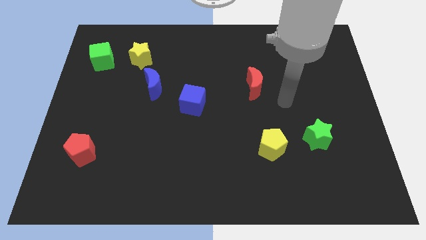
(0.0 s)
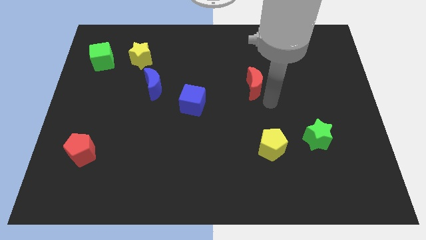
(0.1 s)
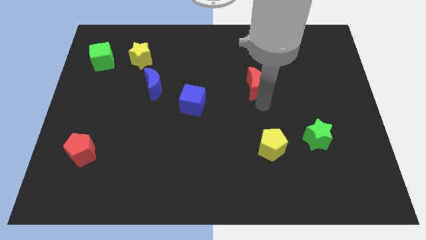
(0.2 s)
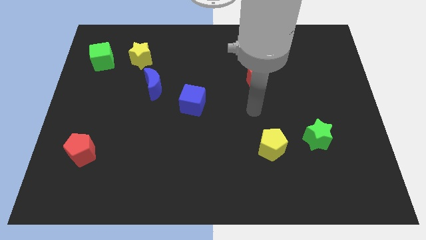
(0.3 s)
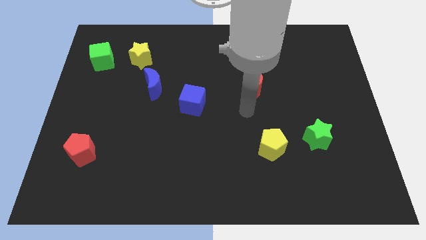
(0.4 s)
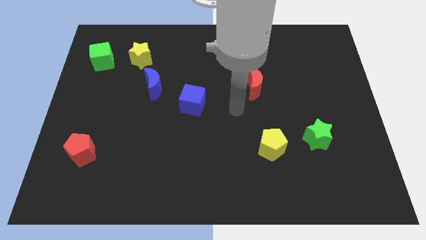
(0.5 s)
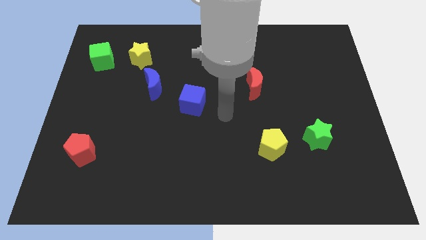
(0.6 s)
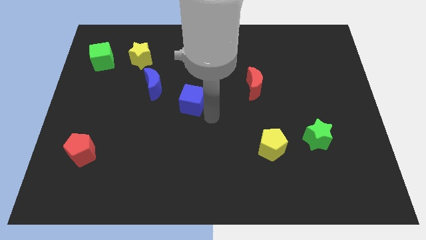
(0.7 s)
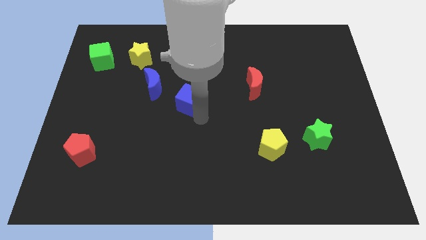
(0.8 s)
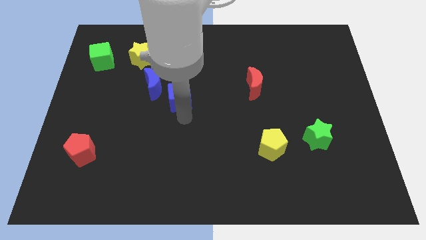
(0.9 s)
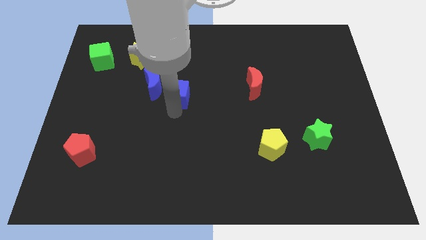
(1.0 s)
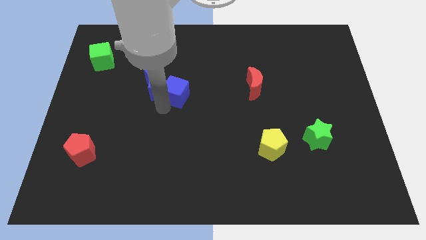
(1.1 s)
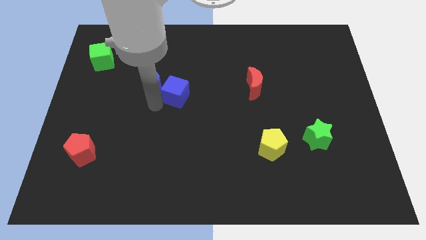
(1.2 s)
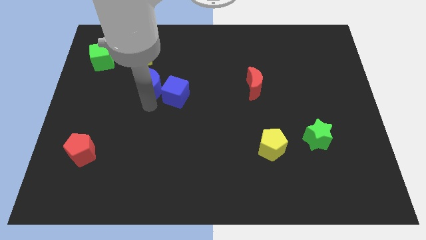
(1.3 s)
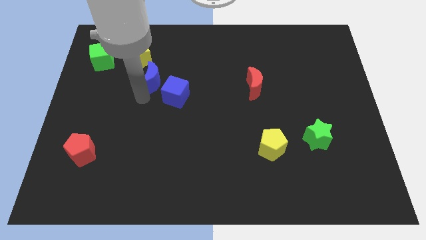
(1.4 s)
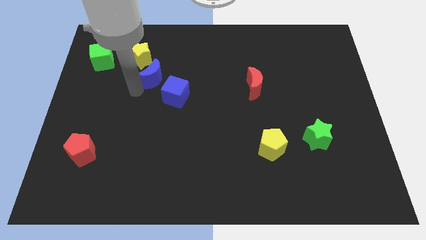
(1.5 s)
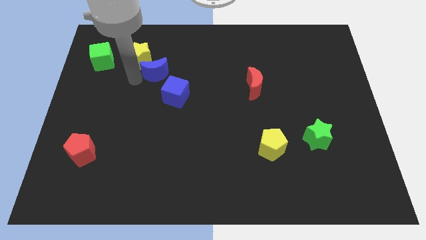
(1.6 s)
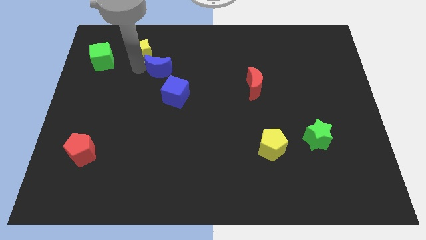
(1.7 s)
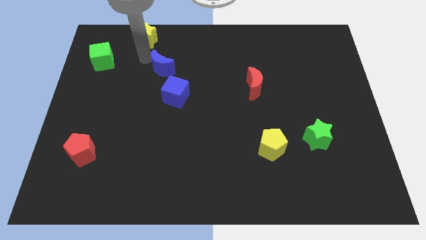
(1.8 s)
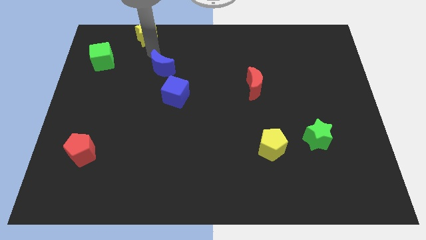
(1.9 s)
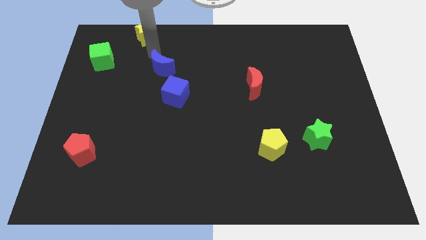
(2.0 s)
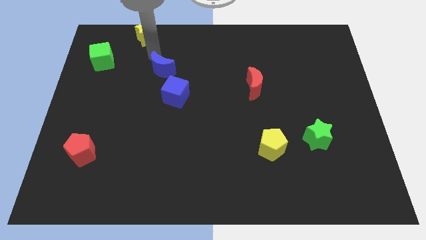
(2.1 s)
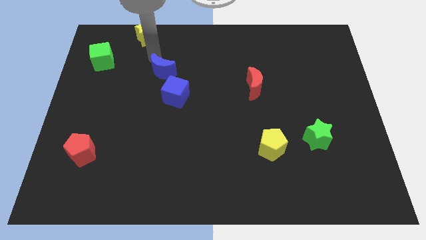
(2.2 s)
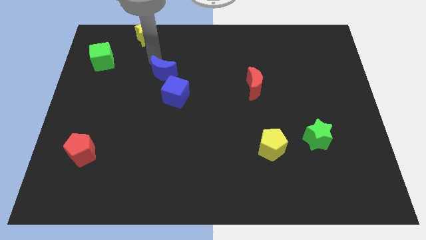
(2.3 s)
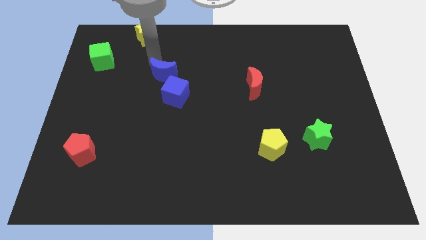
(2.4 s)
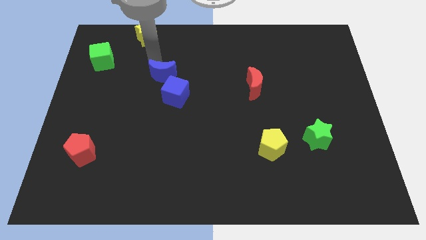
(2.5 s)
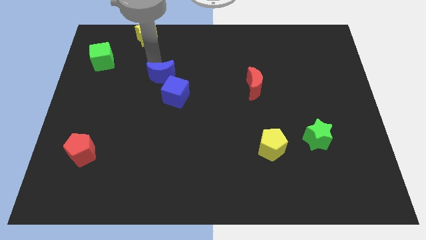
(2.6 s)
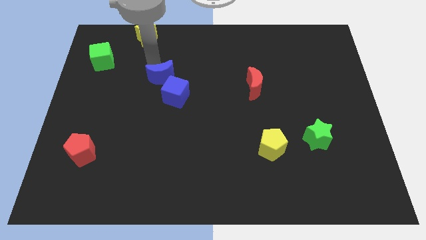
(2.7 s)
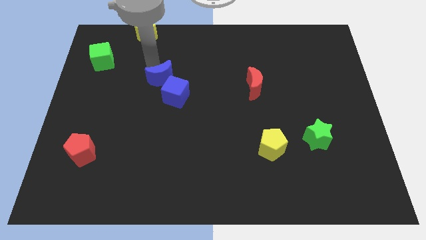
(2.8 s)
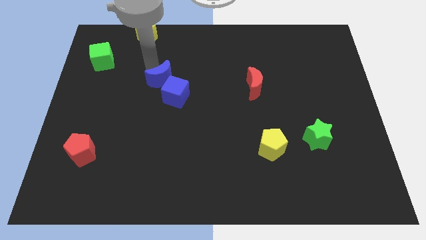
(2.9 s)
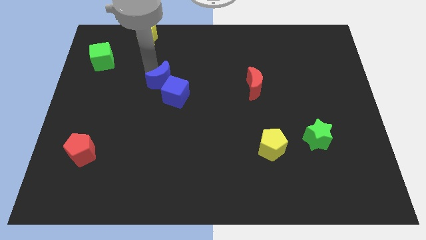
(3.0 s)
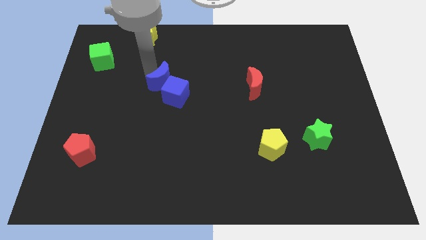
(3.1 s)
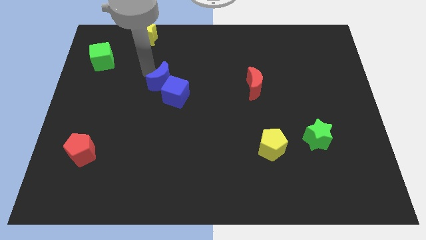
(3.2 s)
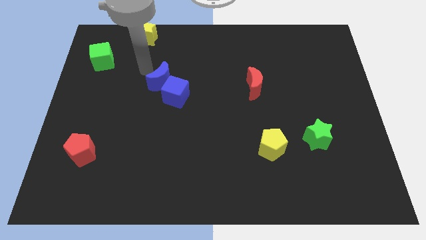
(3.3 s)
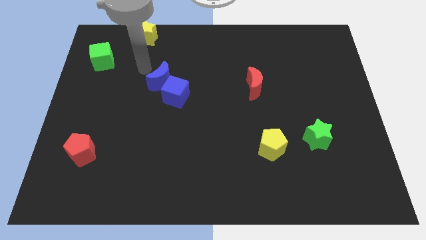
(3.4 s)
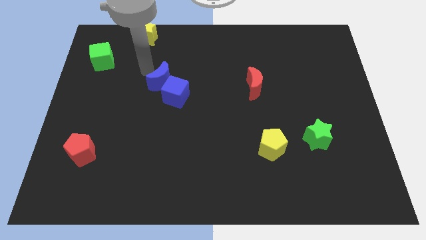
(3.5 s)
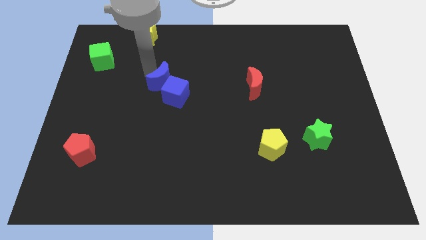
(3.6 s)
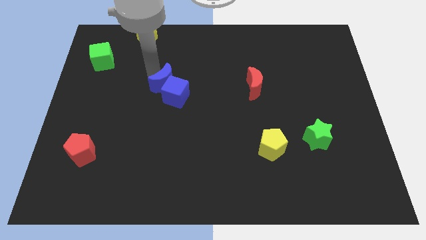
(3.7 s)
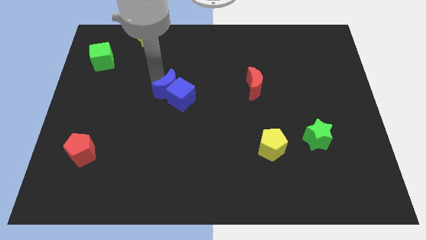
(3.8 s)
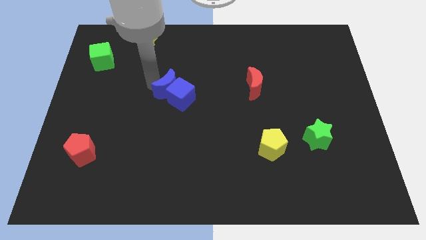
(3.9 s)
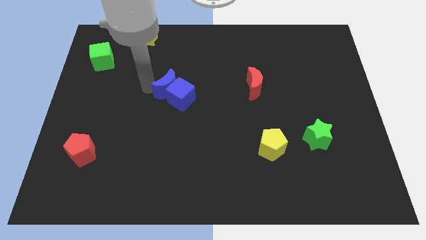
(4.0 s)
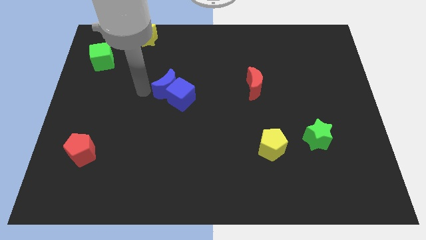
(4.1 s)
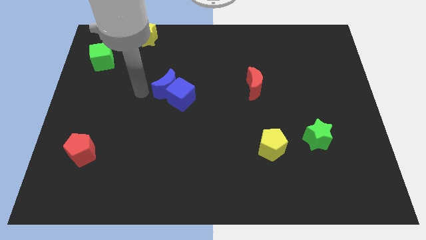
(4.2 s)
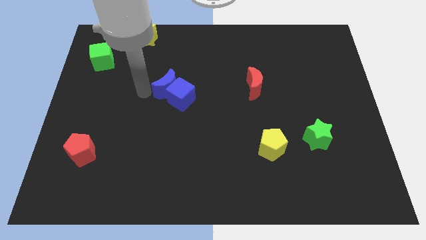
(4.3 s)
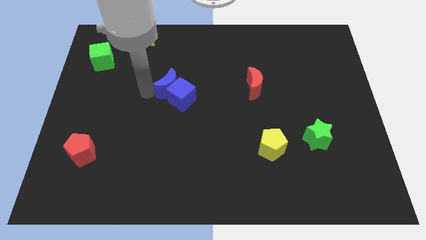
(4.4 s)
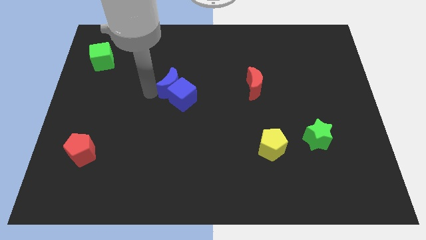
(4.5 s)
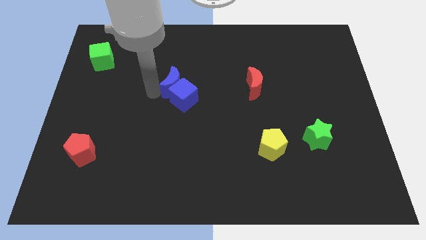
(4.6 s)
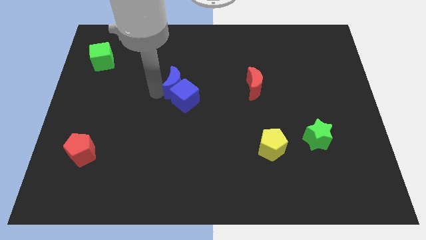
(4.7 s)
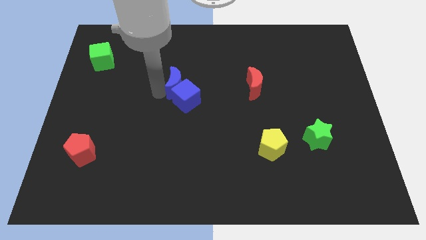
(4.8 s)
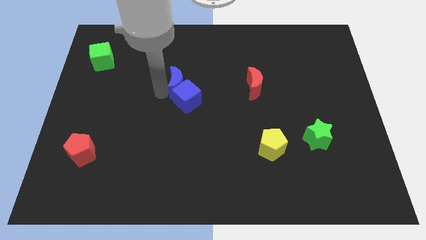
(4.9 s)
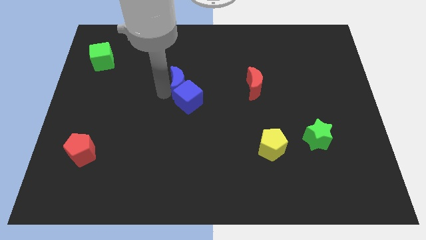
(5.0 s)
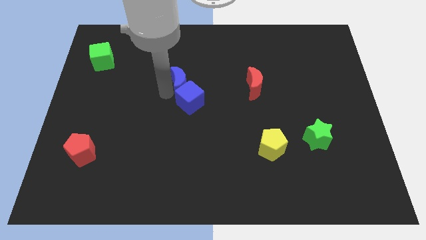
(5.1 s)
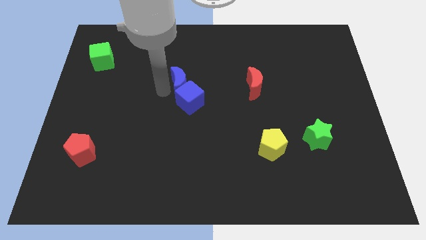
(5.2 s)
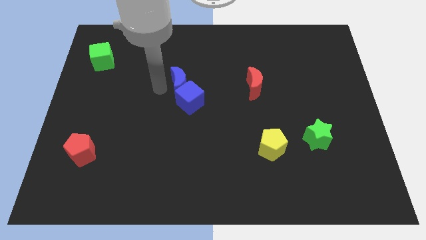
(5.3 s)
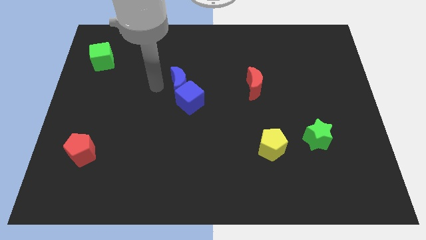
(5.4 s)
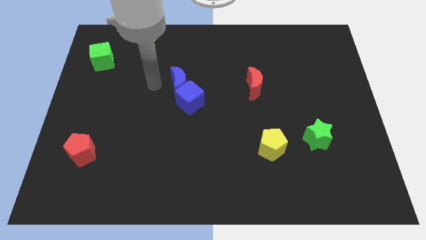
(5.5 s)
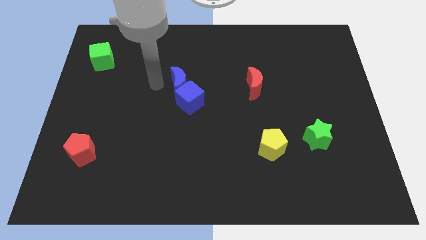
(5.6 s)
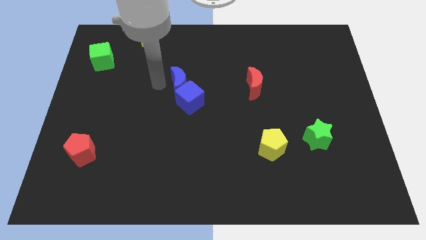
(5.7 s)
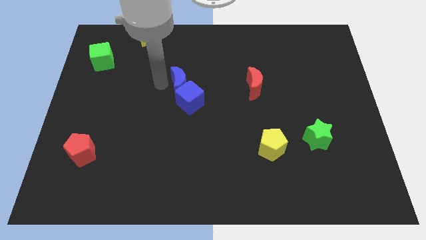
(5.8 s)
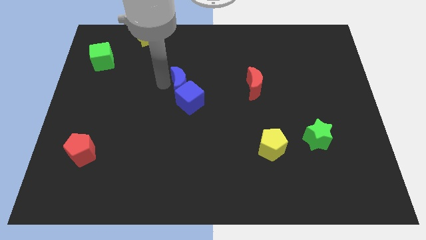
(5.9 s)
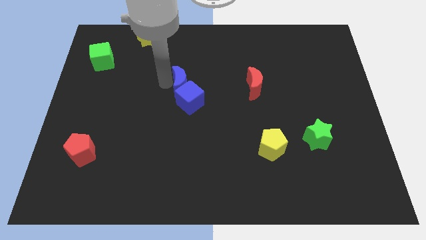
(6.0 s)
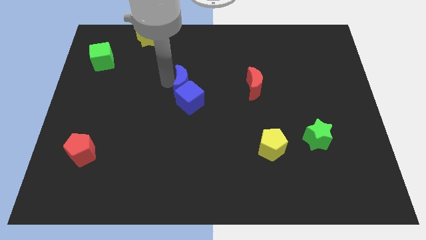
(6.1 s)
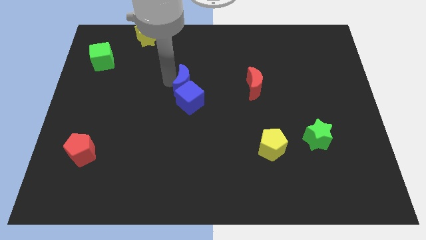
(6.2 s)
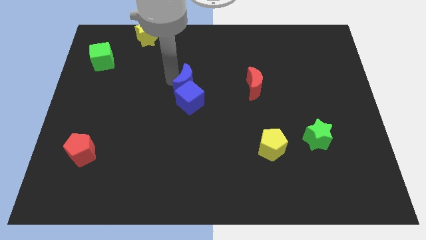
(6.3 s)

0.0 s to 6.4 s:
move the blue moon diagonally up and to the right of the blue cube
